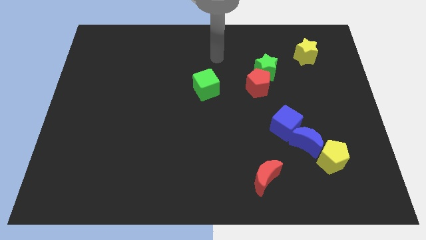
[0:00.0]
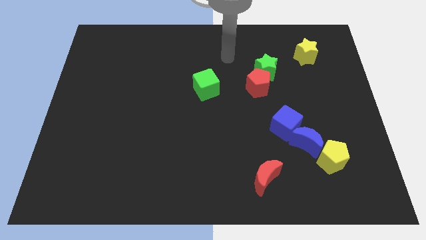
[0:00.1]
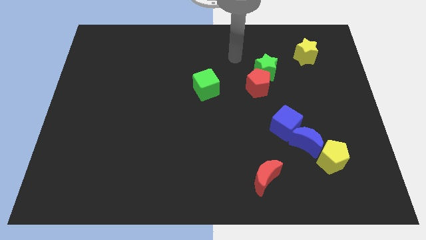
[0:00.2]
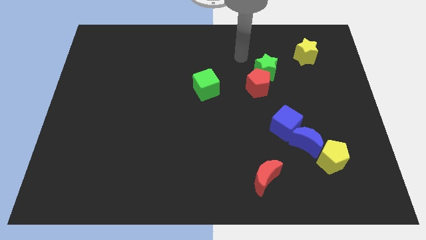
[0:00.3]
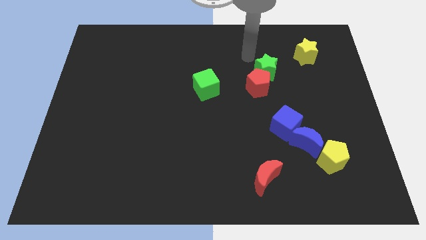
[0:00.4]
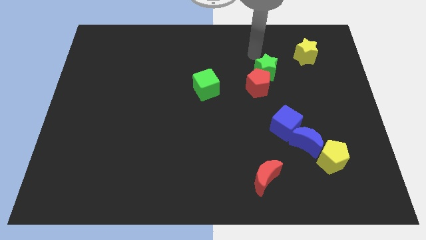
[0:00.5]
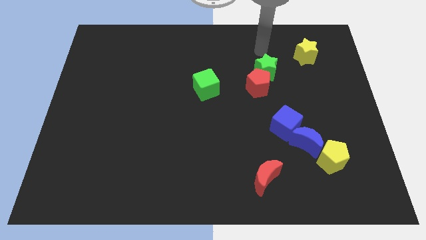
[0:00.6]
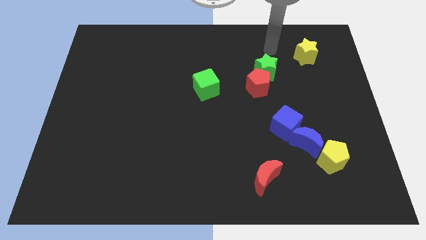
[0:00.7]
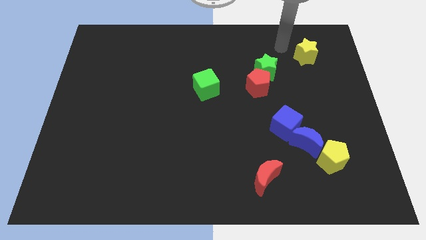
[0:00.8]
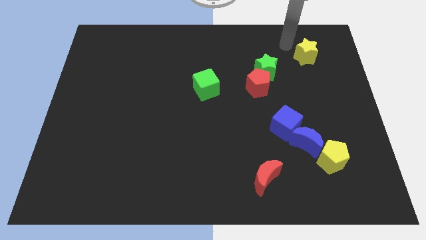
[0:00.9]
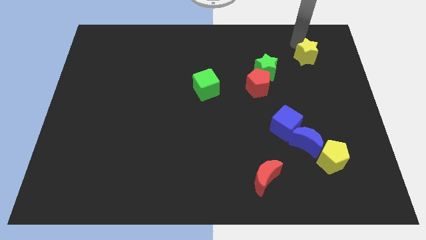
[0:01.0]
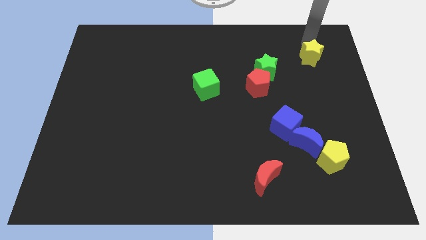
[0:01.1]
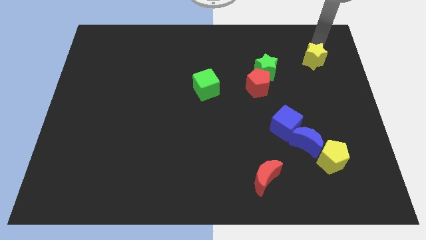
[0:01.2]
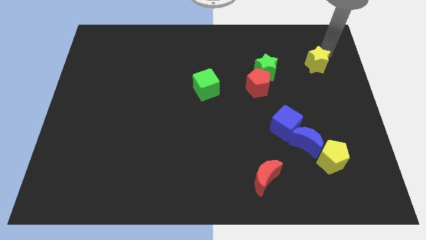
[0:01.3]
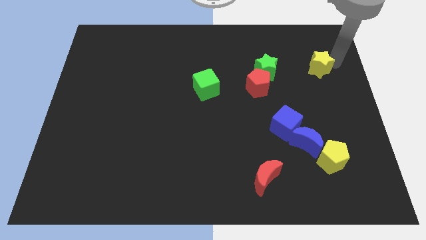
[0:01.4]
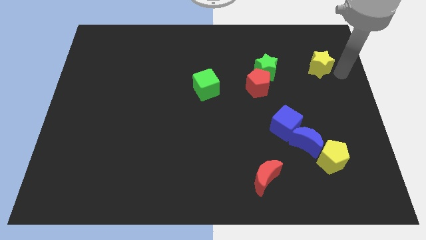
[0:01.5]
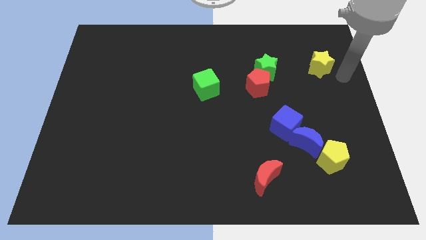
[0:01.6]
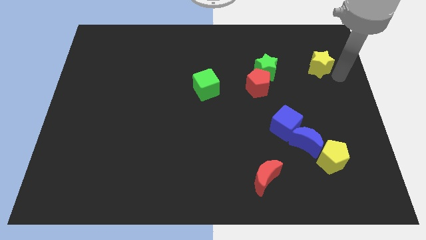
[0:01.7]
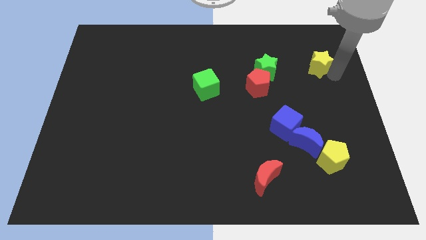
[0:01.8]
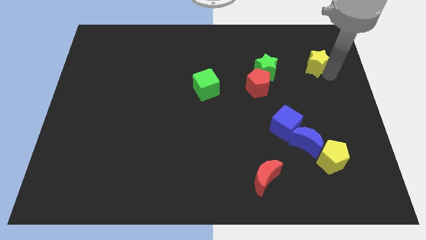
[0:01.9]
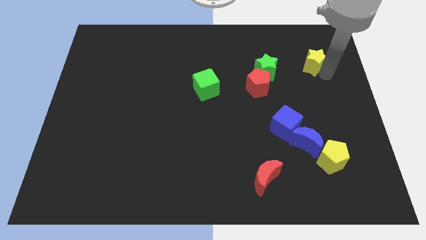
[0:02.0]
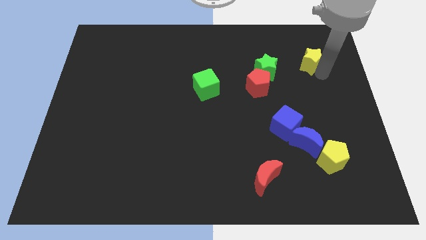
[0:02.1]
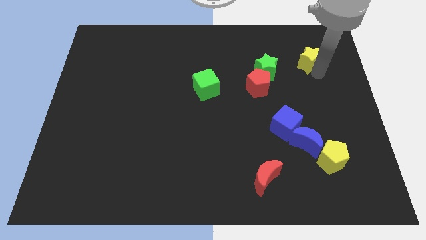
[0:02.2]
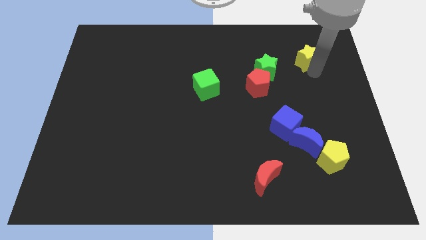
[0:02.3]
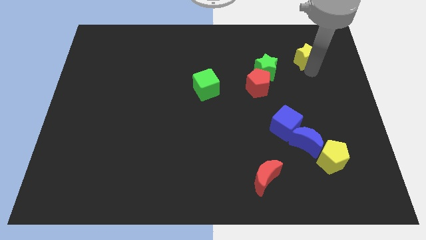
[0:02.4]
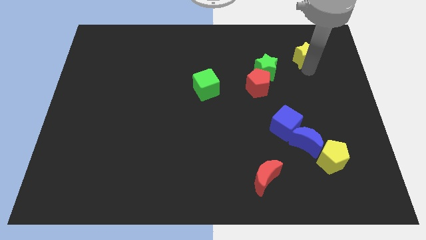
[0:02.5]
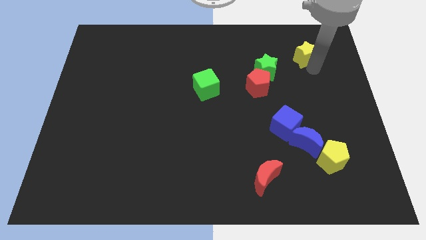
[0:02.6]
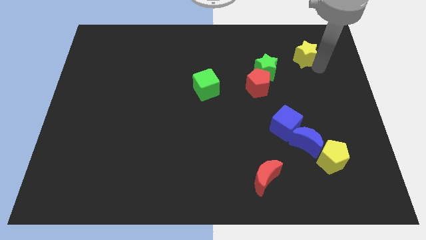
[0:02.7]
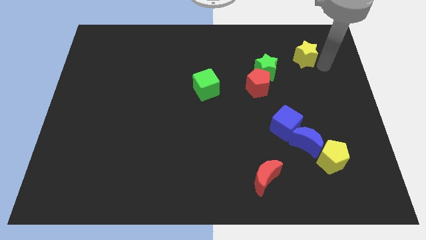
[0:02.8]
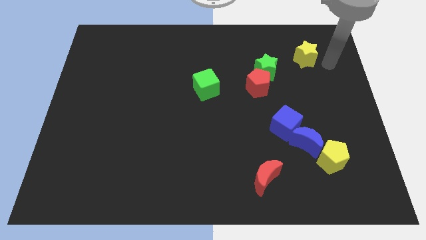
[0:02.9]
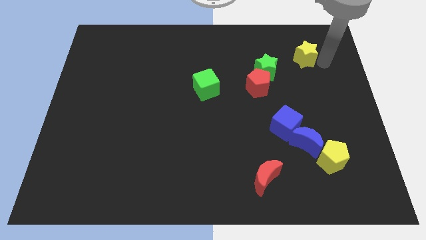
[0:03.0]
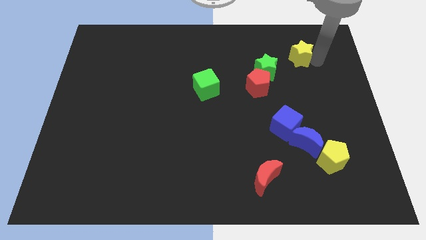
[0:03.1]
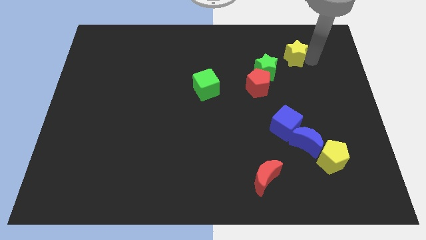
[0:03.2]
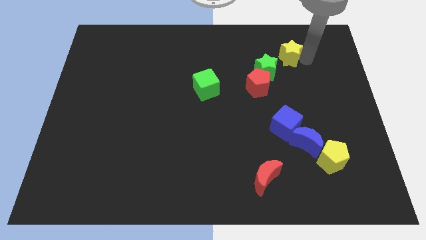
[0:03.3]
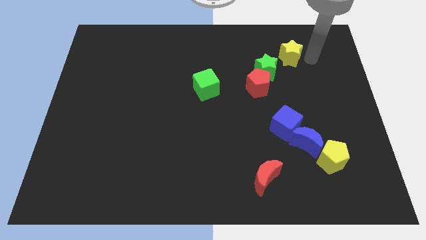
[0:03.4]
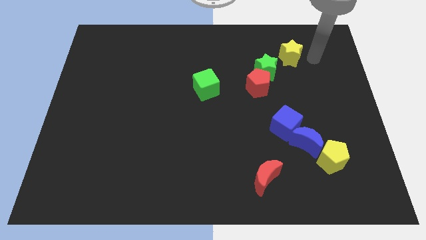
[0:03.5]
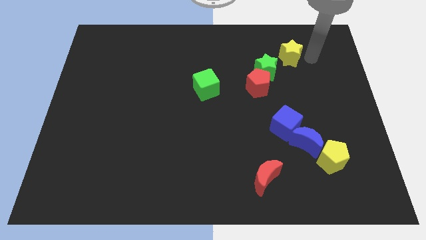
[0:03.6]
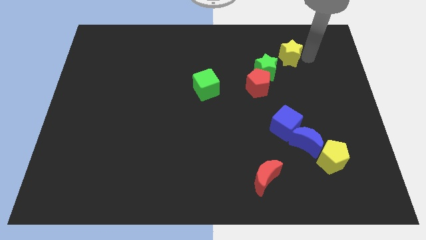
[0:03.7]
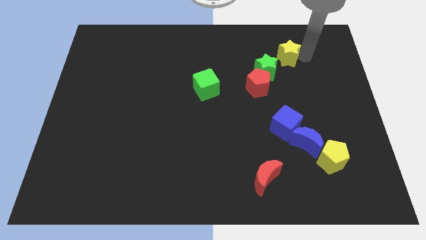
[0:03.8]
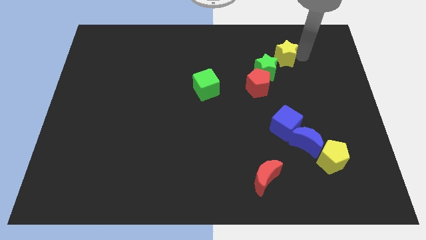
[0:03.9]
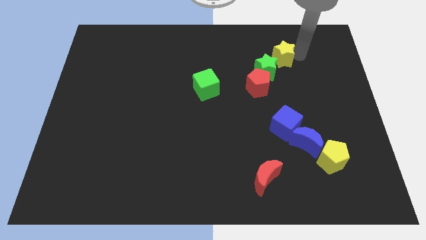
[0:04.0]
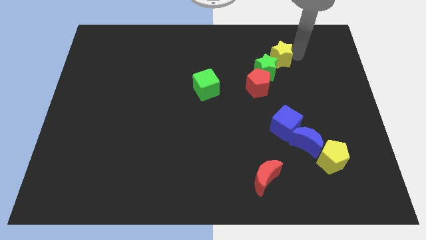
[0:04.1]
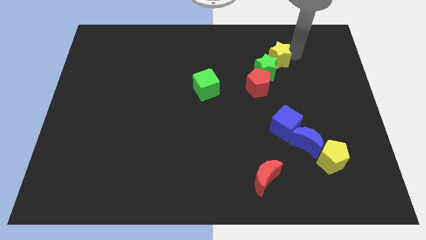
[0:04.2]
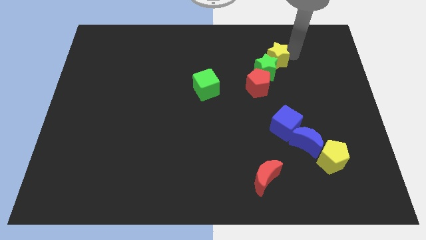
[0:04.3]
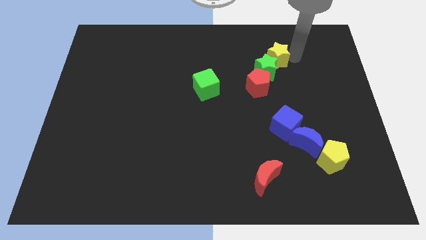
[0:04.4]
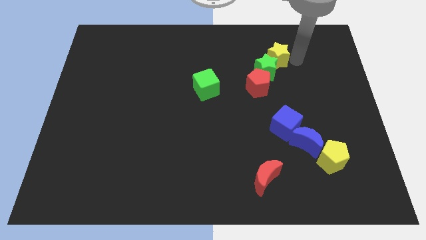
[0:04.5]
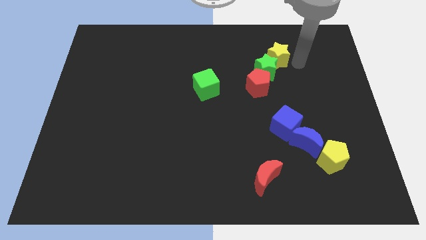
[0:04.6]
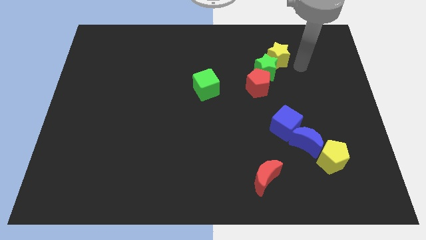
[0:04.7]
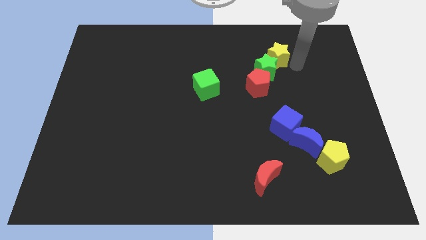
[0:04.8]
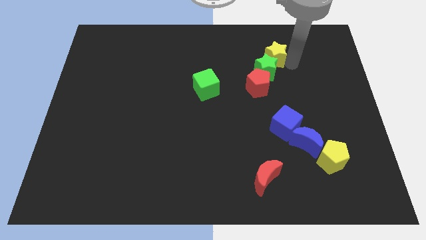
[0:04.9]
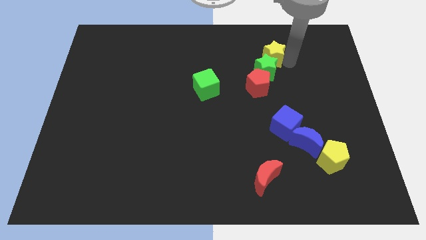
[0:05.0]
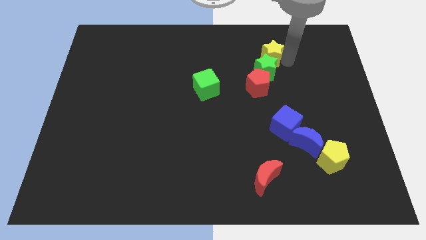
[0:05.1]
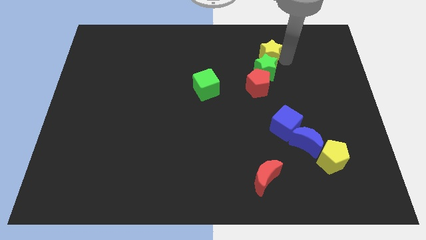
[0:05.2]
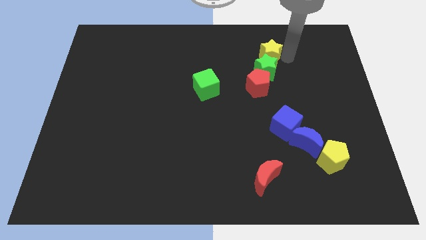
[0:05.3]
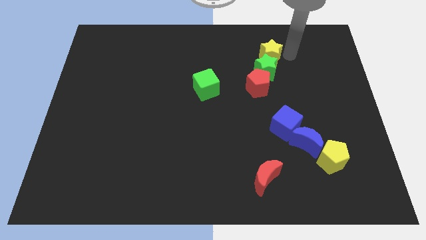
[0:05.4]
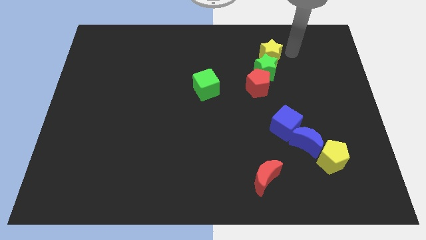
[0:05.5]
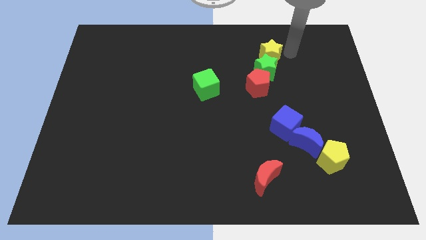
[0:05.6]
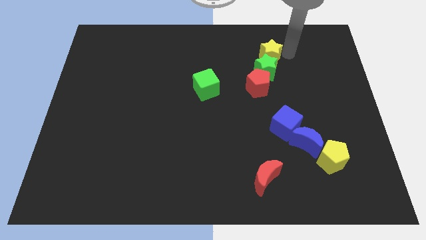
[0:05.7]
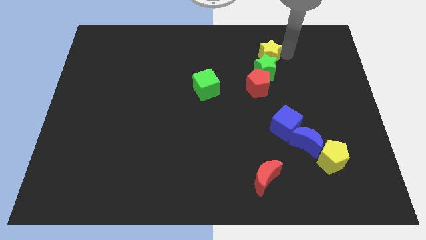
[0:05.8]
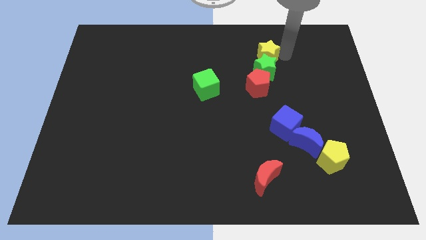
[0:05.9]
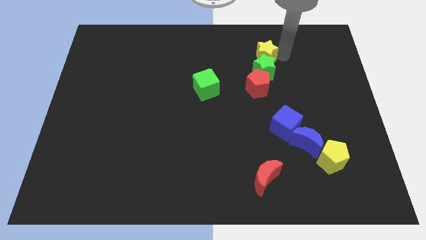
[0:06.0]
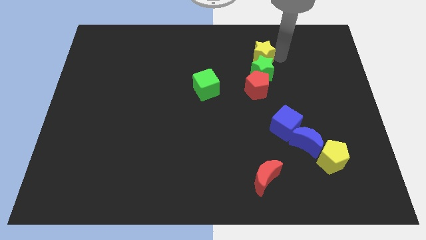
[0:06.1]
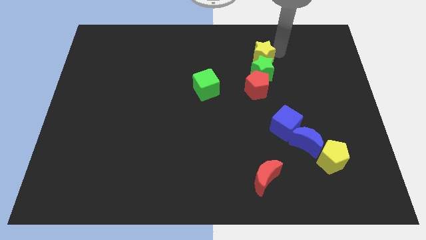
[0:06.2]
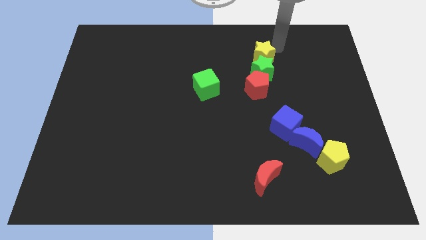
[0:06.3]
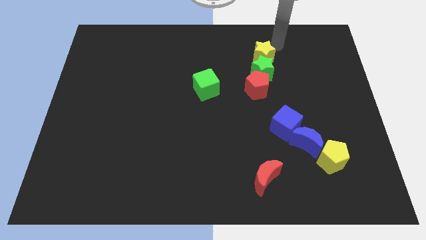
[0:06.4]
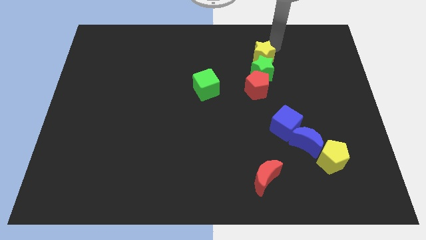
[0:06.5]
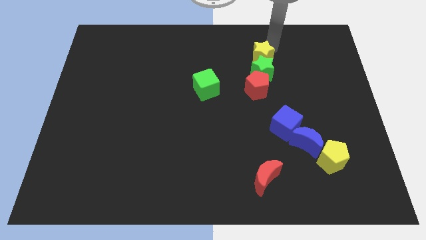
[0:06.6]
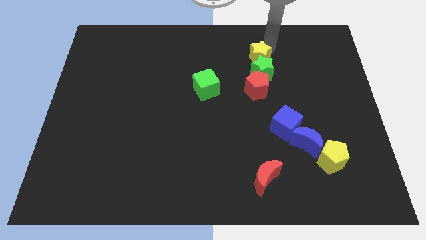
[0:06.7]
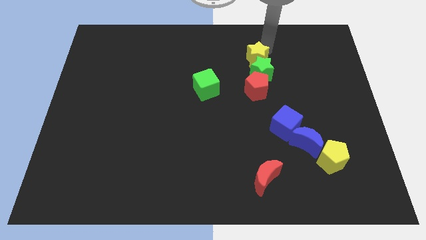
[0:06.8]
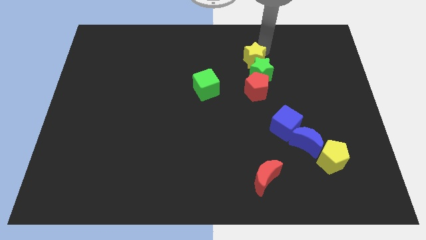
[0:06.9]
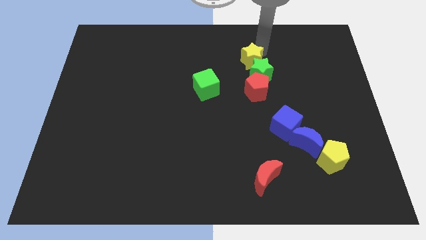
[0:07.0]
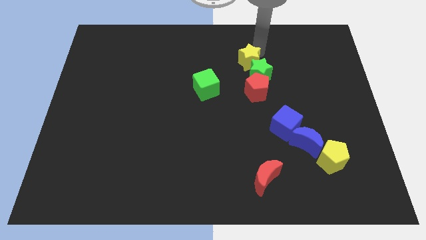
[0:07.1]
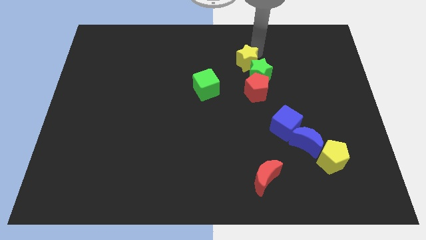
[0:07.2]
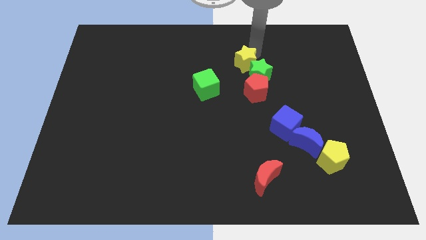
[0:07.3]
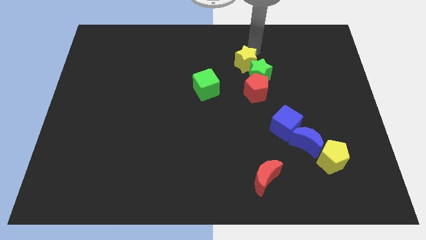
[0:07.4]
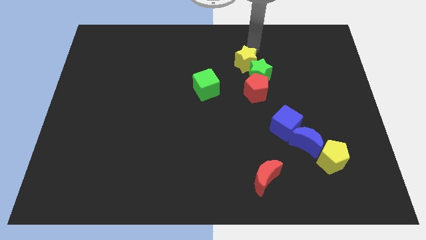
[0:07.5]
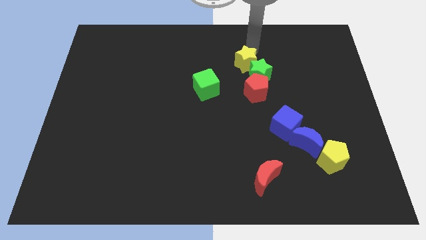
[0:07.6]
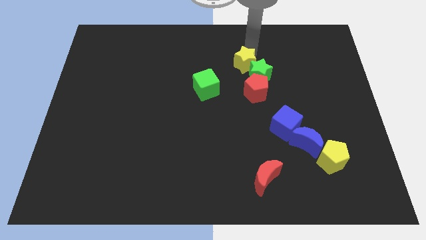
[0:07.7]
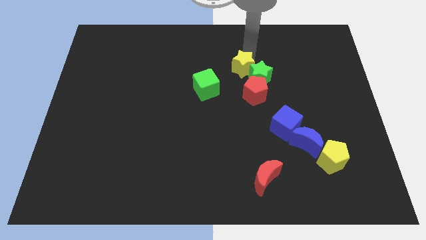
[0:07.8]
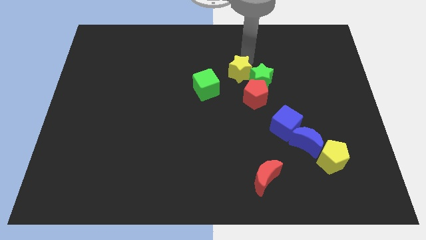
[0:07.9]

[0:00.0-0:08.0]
move the yellow star to the center of the board
